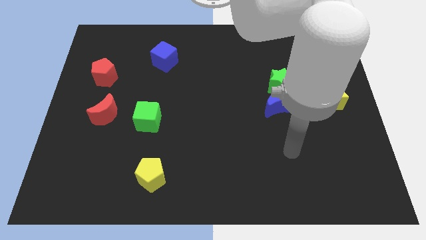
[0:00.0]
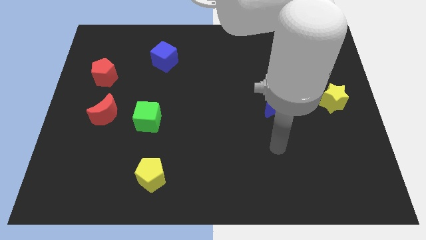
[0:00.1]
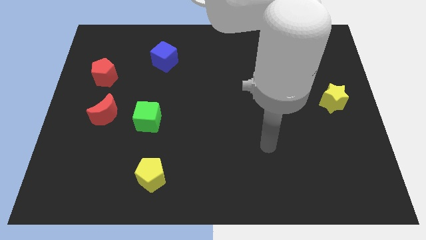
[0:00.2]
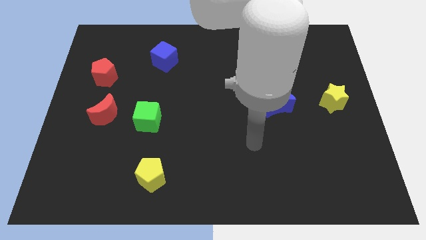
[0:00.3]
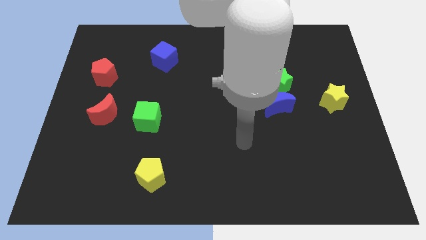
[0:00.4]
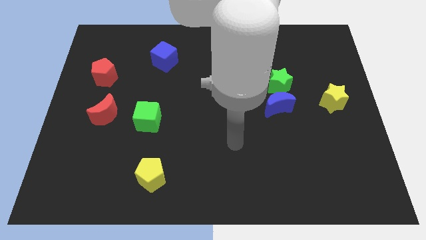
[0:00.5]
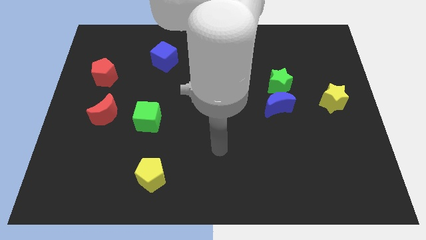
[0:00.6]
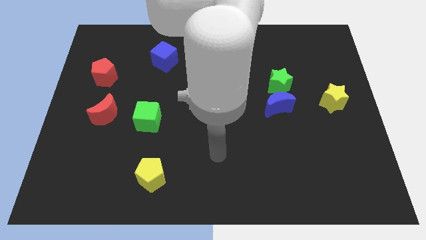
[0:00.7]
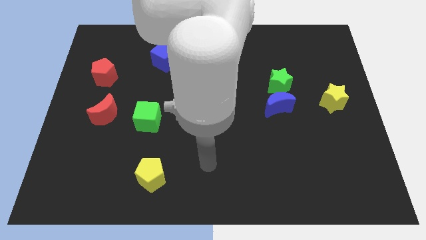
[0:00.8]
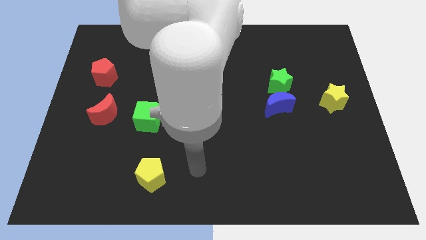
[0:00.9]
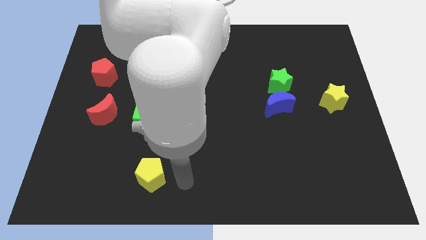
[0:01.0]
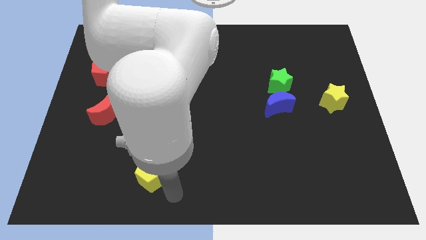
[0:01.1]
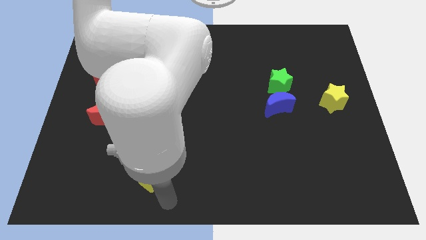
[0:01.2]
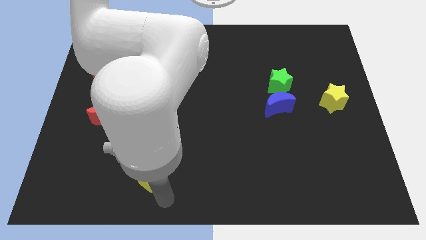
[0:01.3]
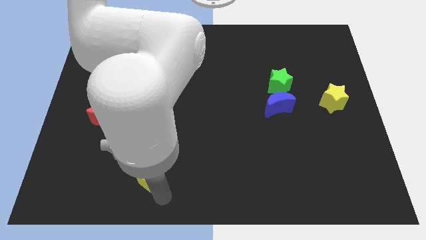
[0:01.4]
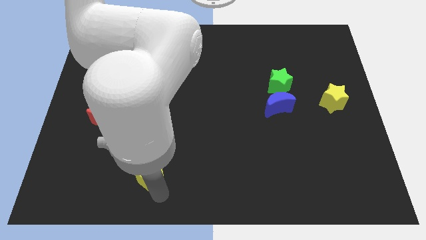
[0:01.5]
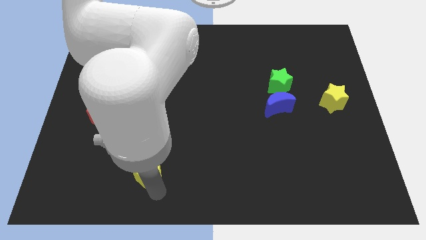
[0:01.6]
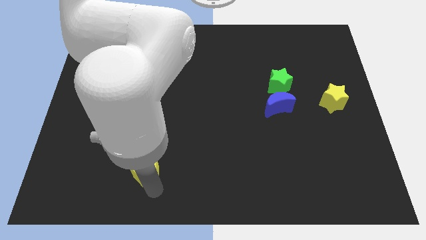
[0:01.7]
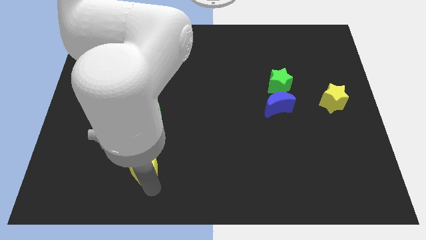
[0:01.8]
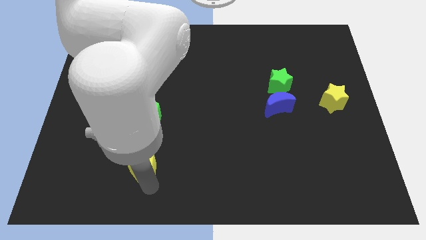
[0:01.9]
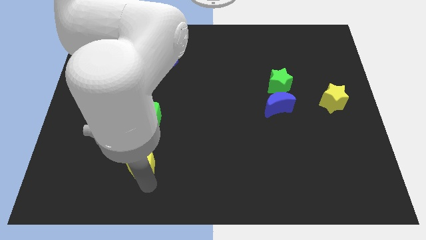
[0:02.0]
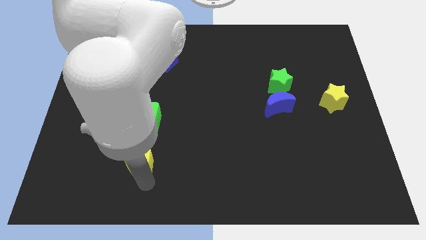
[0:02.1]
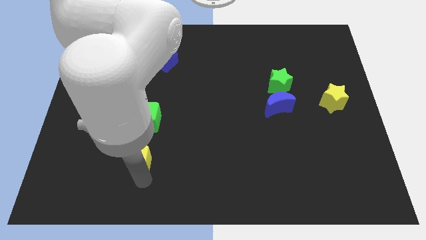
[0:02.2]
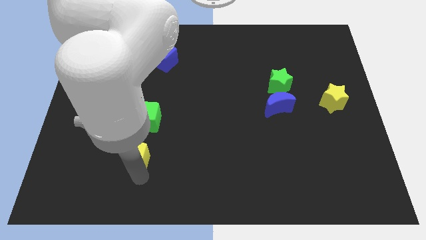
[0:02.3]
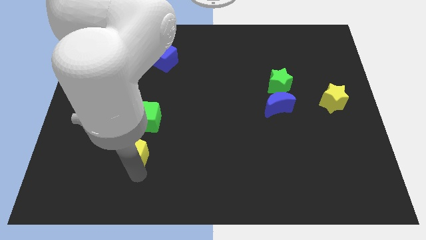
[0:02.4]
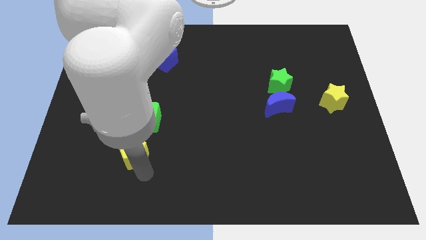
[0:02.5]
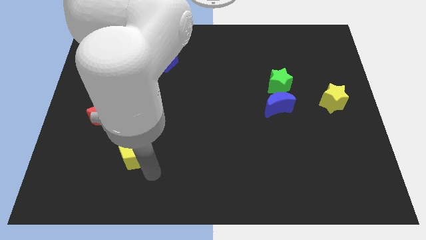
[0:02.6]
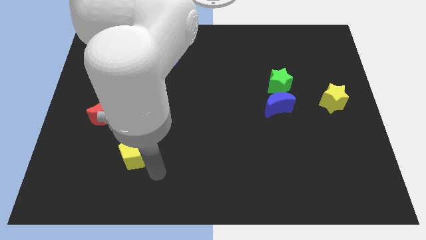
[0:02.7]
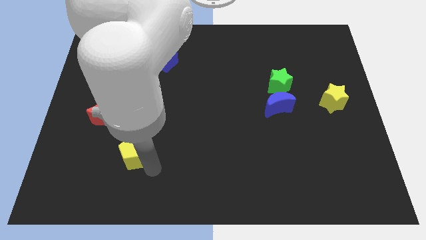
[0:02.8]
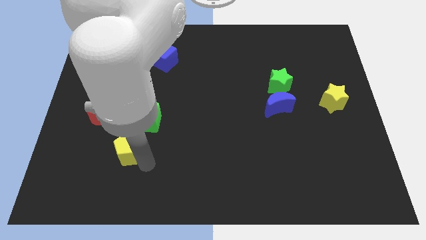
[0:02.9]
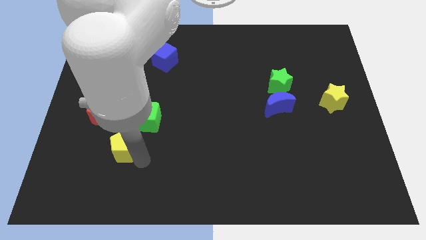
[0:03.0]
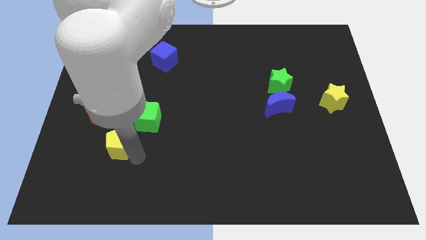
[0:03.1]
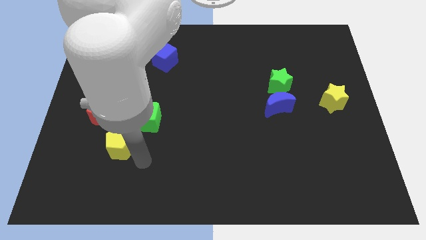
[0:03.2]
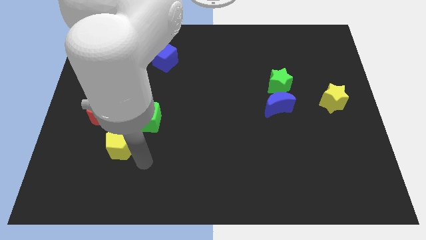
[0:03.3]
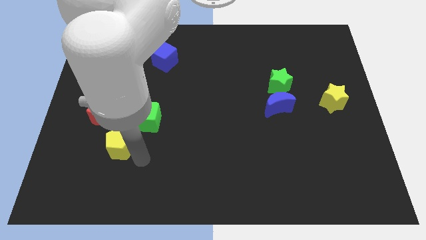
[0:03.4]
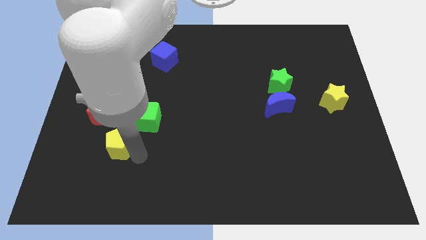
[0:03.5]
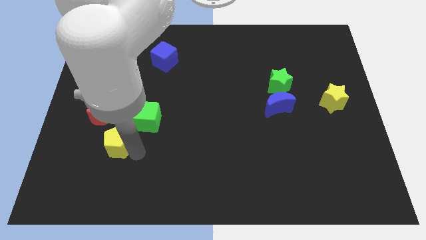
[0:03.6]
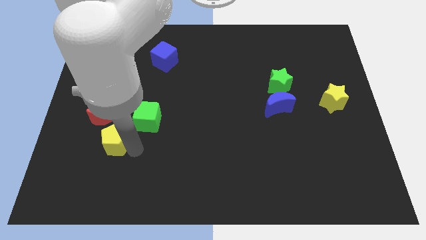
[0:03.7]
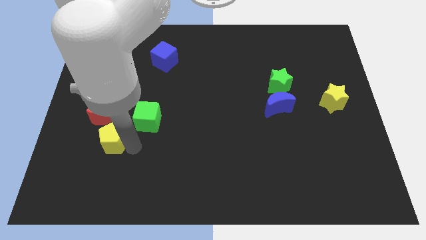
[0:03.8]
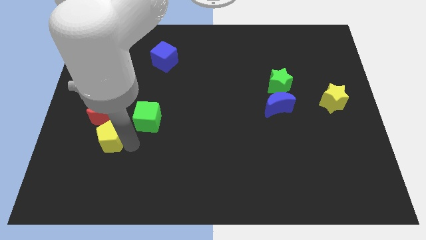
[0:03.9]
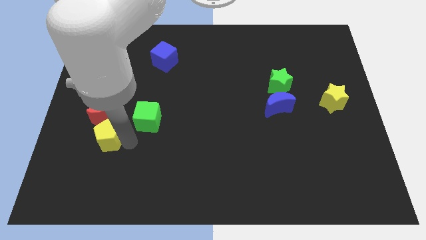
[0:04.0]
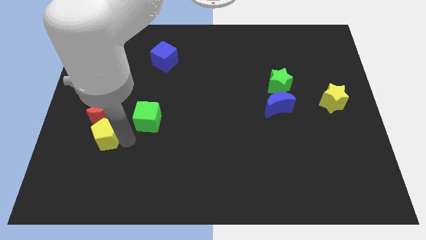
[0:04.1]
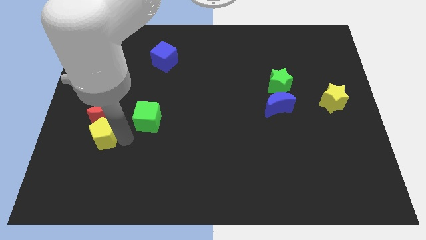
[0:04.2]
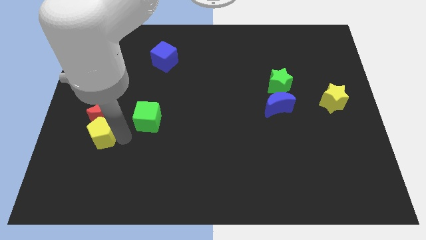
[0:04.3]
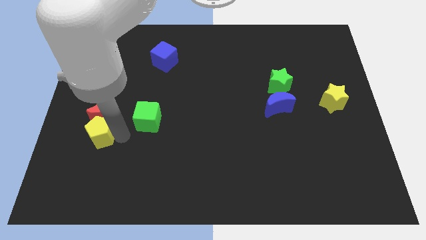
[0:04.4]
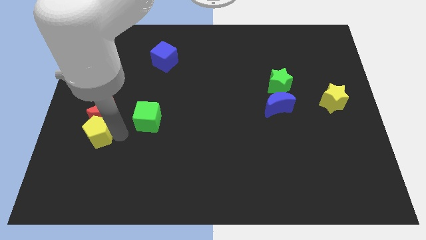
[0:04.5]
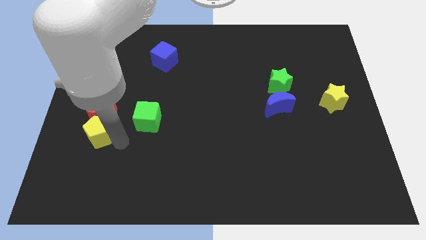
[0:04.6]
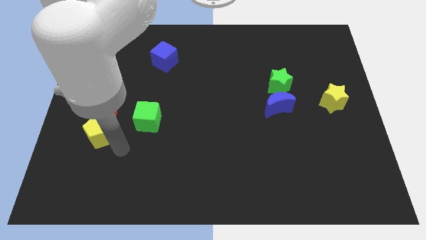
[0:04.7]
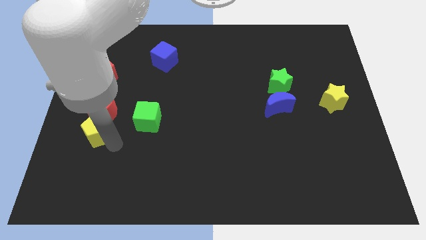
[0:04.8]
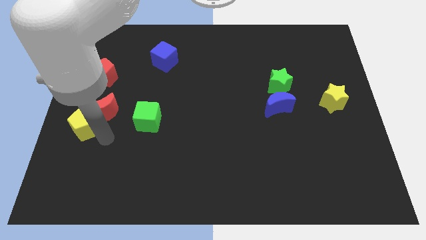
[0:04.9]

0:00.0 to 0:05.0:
put the yellow pentagon to the center left

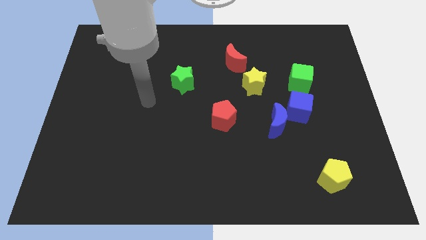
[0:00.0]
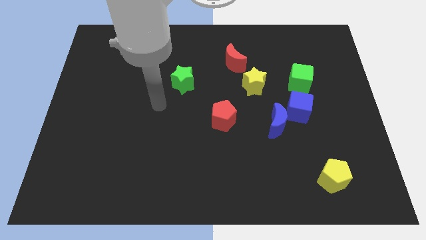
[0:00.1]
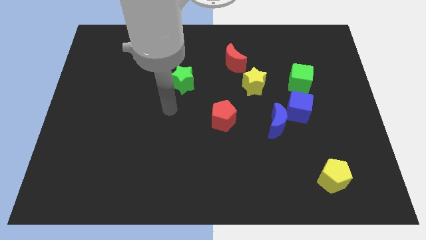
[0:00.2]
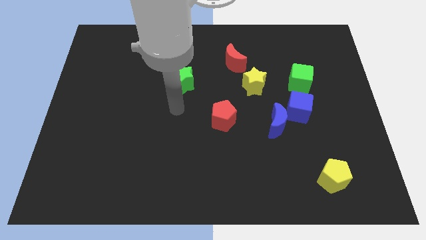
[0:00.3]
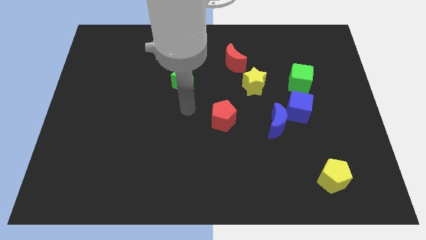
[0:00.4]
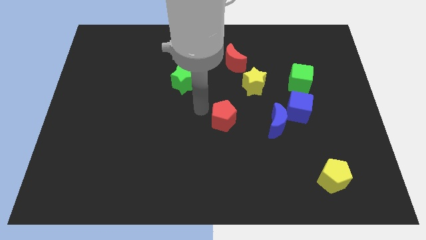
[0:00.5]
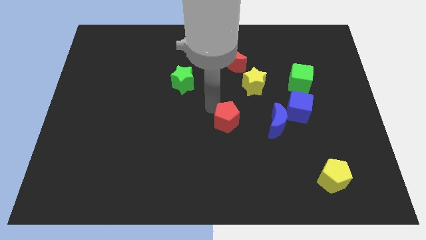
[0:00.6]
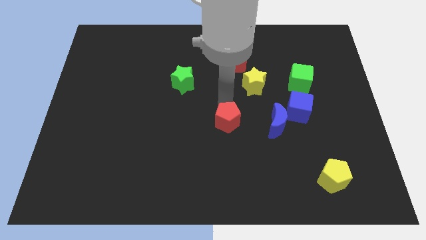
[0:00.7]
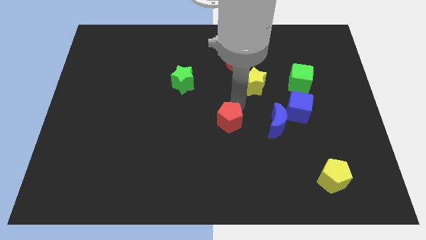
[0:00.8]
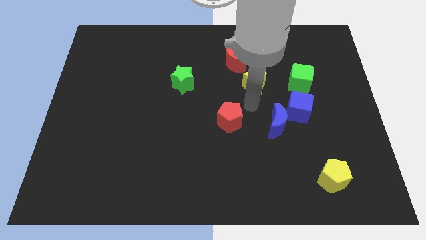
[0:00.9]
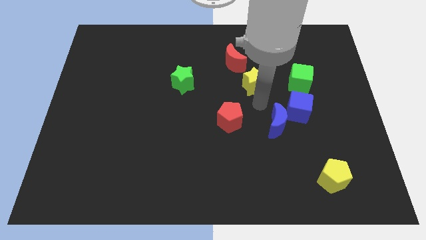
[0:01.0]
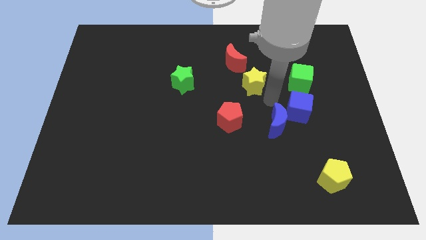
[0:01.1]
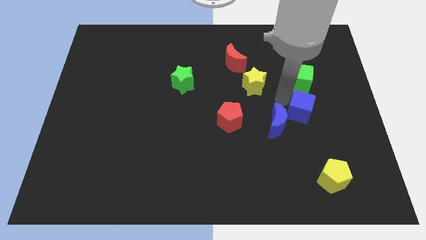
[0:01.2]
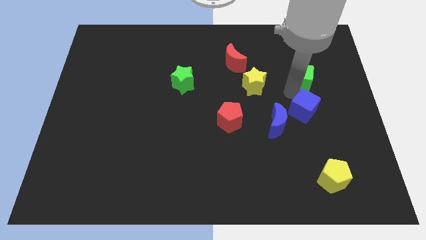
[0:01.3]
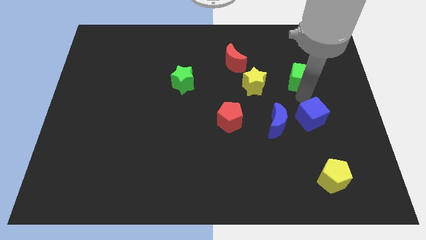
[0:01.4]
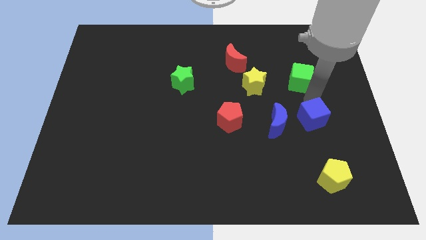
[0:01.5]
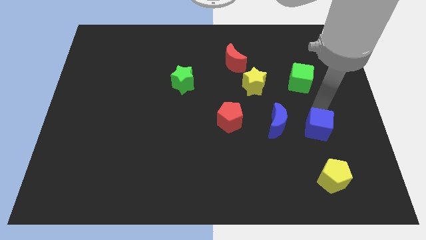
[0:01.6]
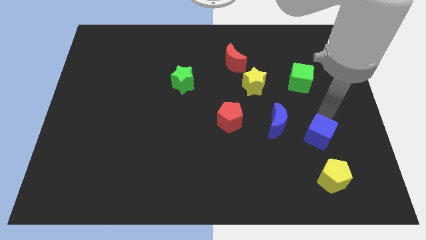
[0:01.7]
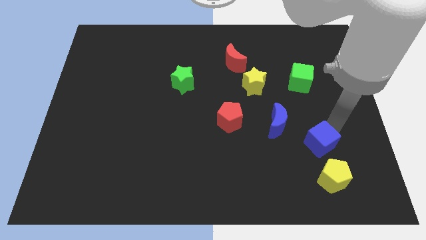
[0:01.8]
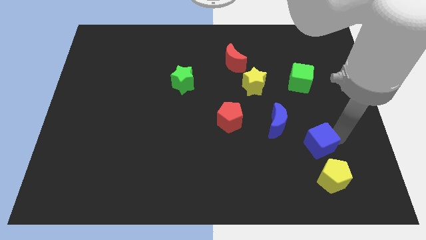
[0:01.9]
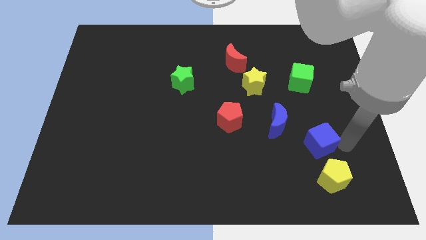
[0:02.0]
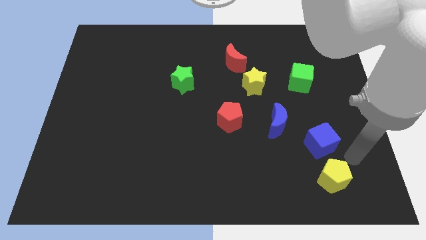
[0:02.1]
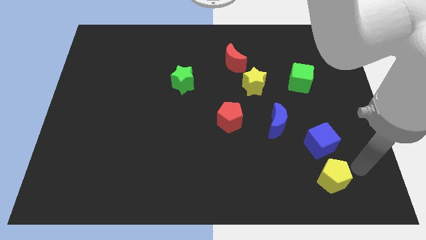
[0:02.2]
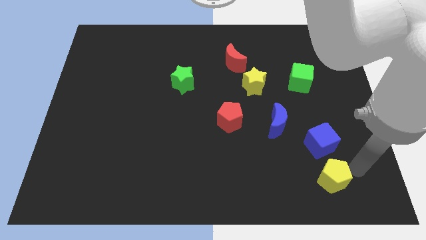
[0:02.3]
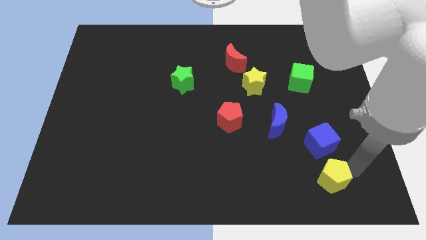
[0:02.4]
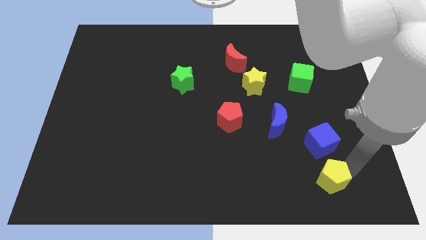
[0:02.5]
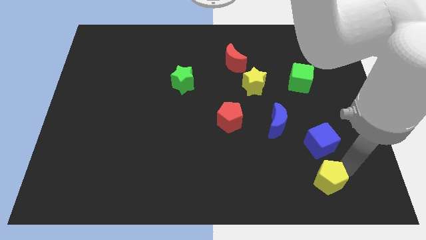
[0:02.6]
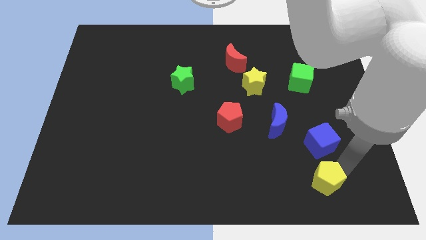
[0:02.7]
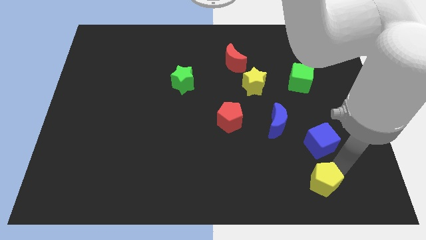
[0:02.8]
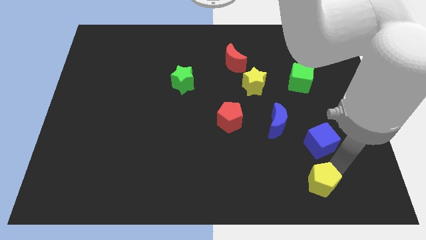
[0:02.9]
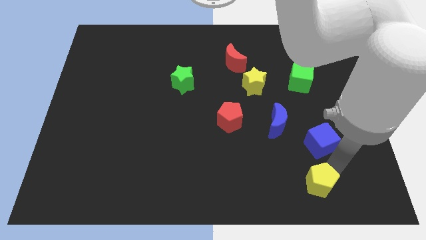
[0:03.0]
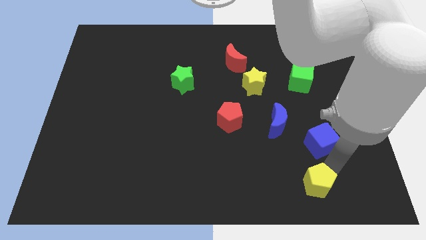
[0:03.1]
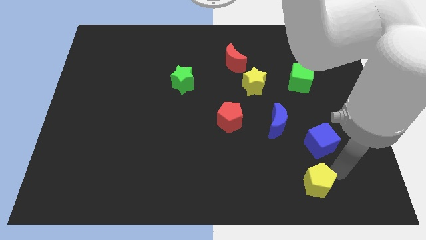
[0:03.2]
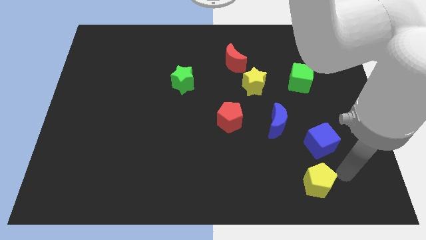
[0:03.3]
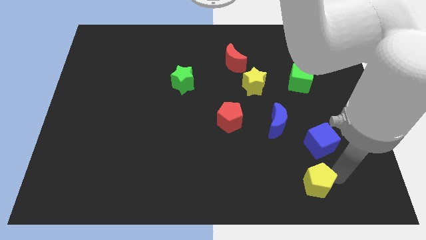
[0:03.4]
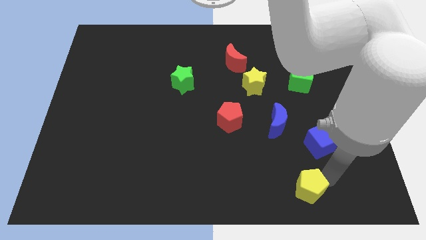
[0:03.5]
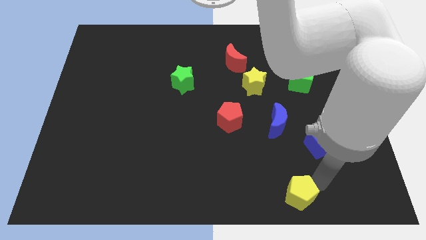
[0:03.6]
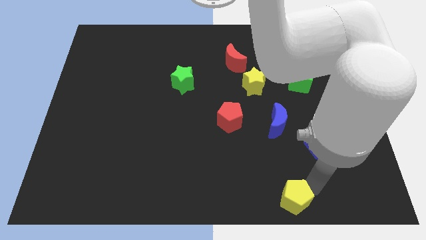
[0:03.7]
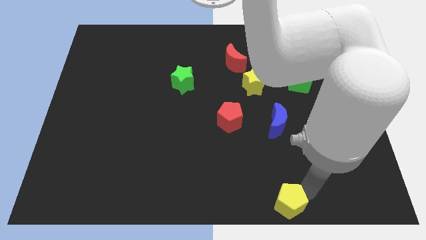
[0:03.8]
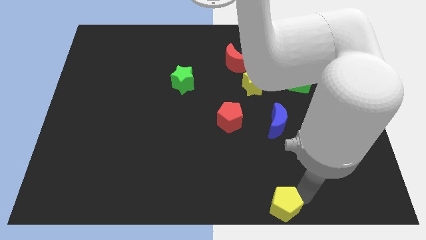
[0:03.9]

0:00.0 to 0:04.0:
push the yellow pentagon to the bottom
